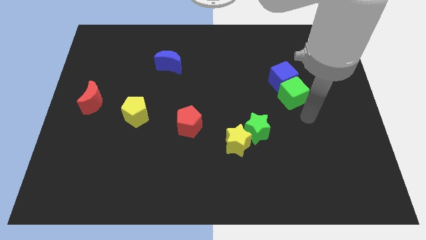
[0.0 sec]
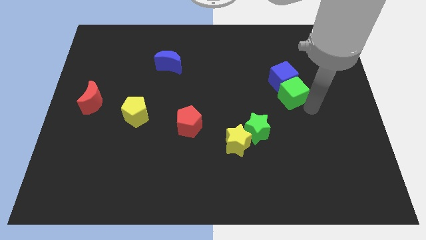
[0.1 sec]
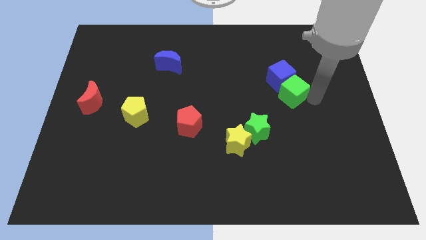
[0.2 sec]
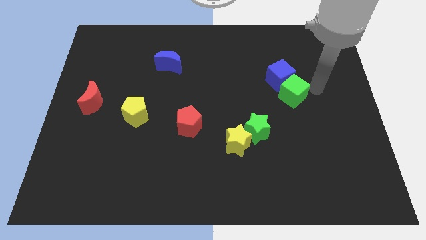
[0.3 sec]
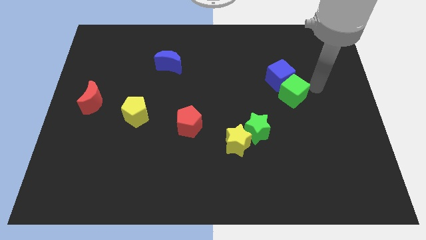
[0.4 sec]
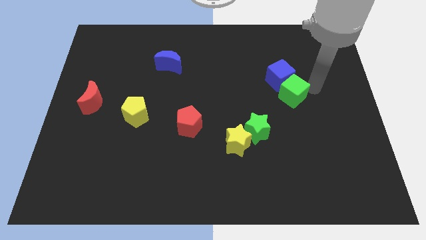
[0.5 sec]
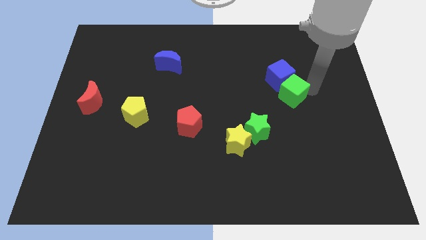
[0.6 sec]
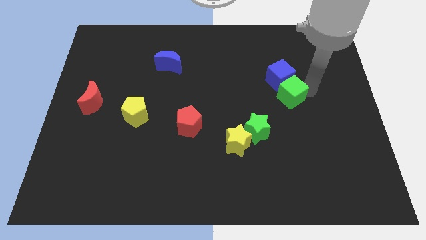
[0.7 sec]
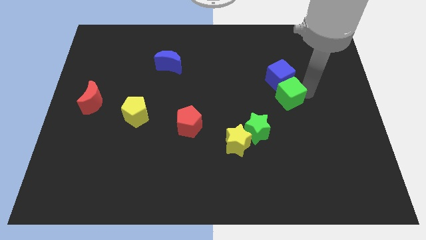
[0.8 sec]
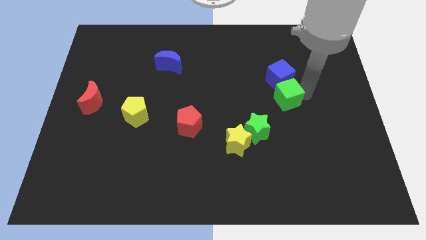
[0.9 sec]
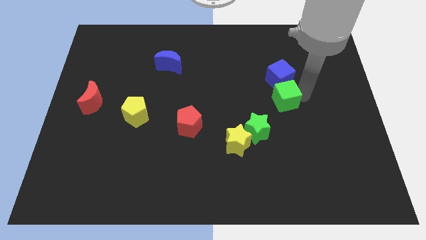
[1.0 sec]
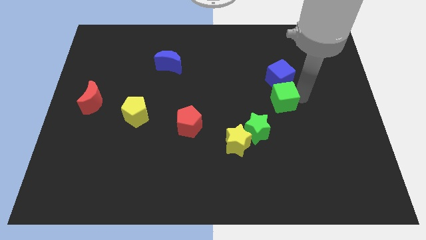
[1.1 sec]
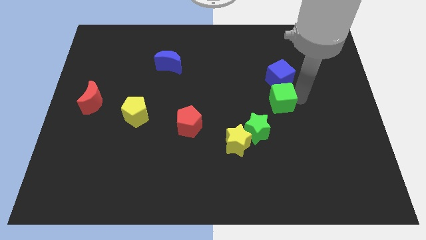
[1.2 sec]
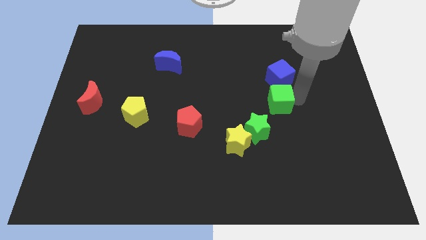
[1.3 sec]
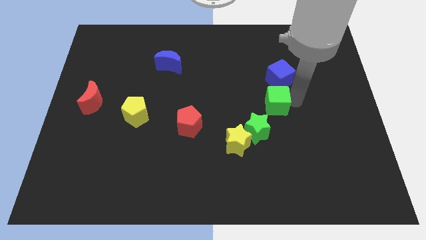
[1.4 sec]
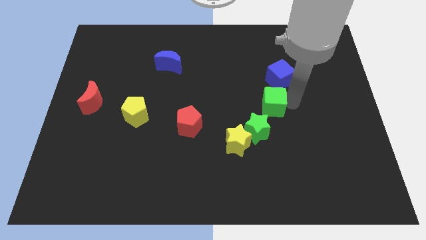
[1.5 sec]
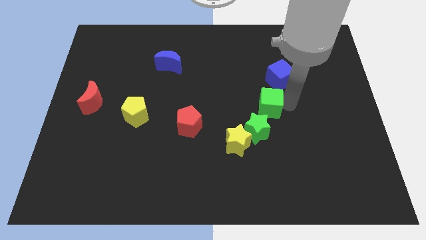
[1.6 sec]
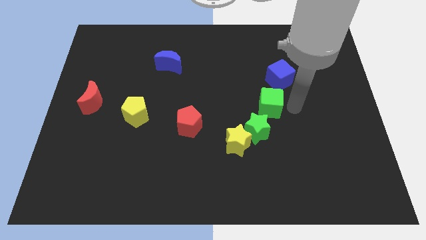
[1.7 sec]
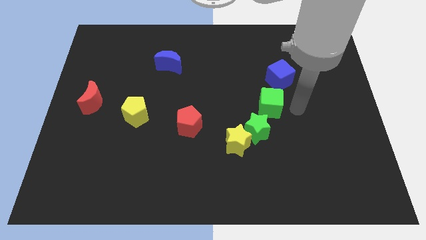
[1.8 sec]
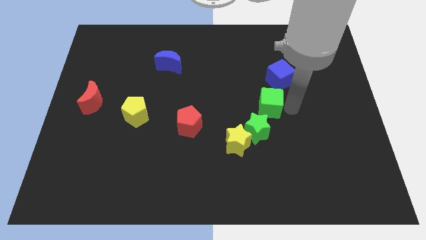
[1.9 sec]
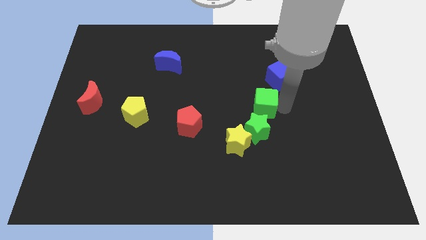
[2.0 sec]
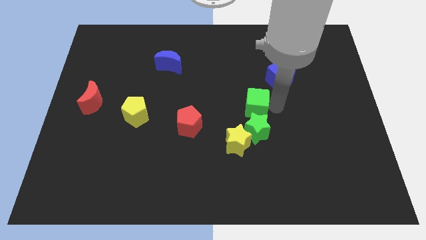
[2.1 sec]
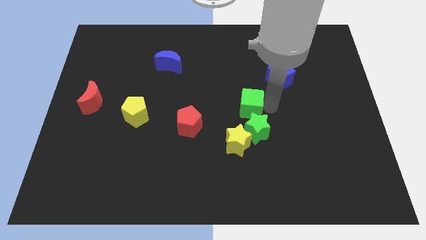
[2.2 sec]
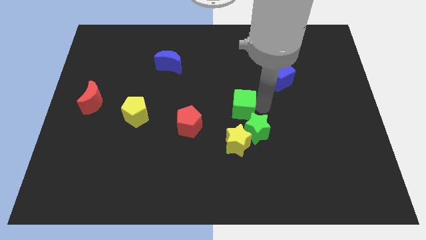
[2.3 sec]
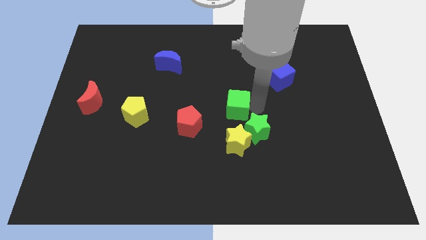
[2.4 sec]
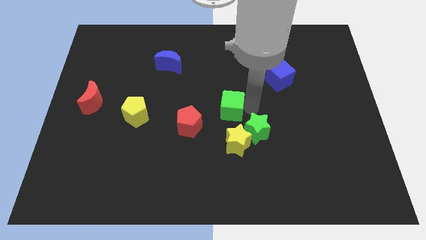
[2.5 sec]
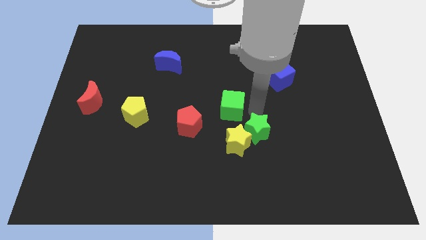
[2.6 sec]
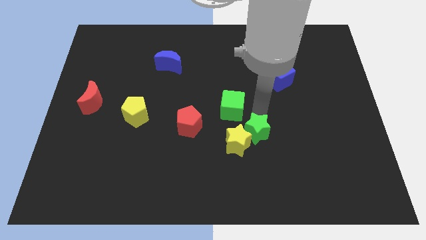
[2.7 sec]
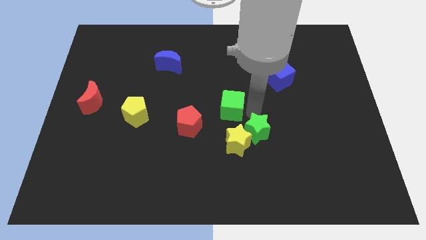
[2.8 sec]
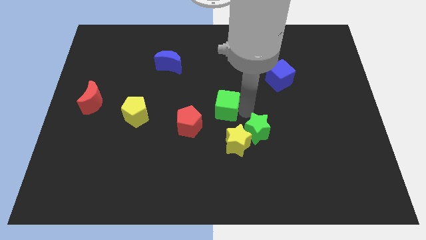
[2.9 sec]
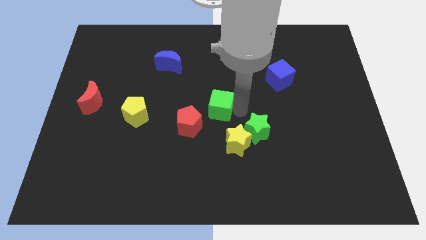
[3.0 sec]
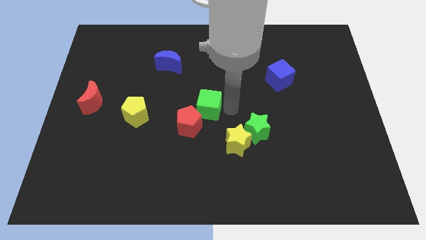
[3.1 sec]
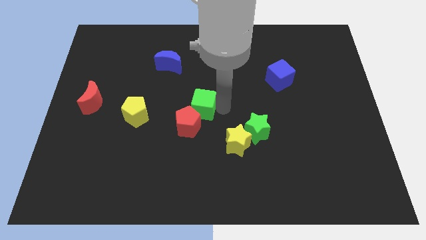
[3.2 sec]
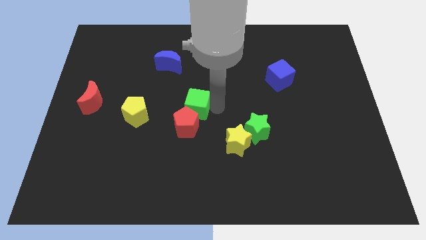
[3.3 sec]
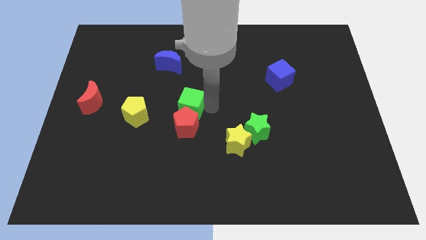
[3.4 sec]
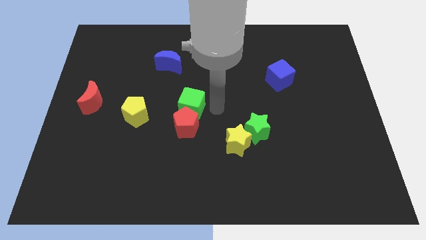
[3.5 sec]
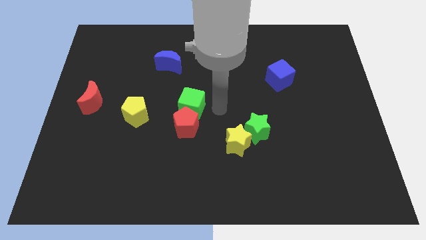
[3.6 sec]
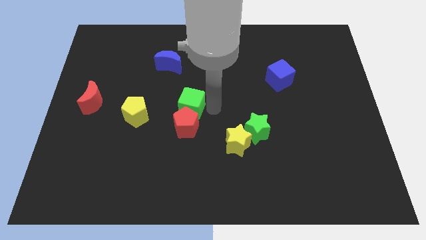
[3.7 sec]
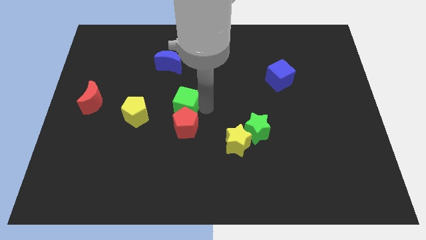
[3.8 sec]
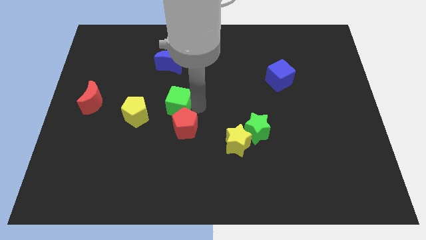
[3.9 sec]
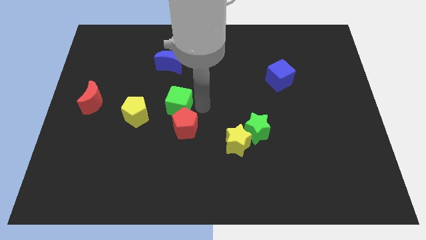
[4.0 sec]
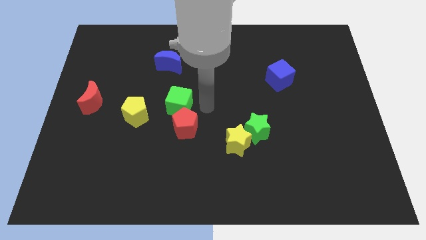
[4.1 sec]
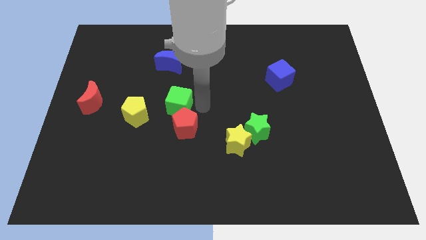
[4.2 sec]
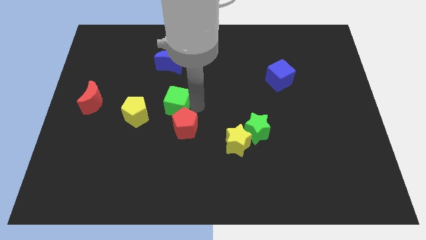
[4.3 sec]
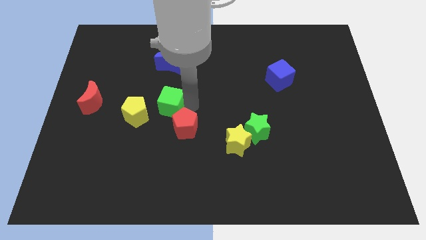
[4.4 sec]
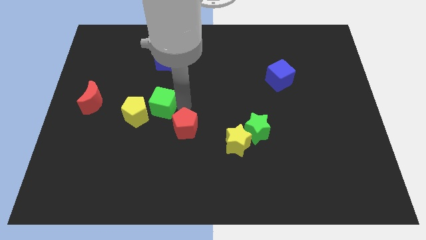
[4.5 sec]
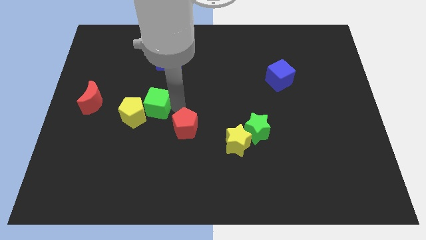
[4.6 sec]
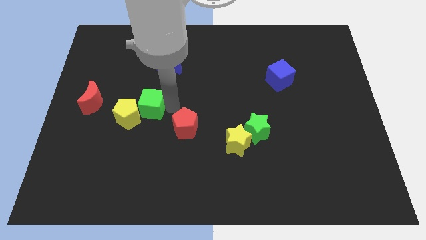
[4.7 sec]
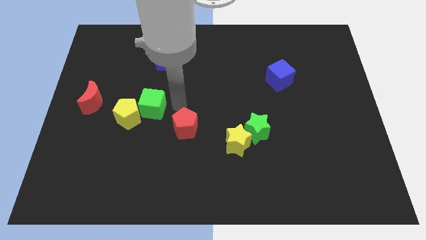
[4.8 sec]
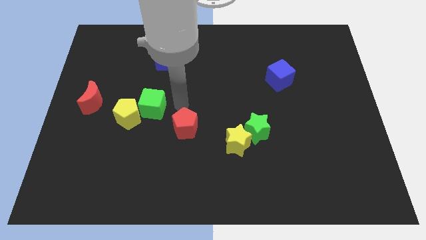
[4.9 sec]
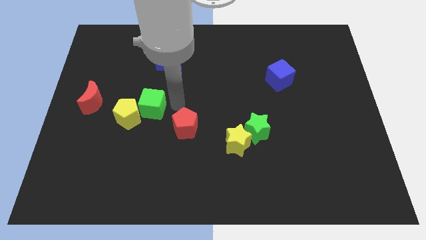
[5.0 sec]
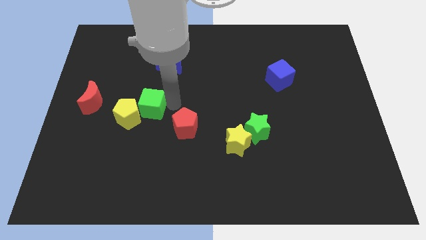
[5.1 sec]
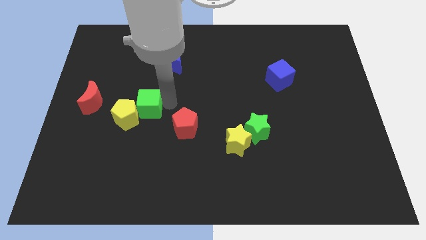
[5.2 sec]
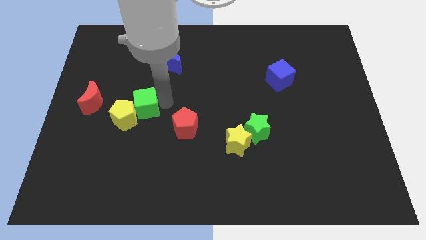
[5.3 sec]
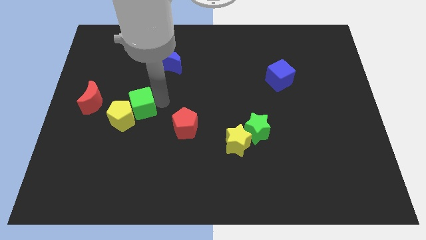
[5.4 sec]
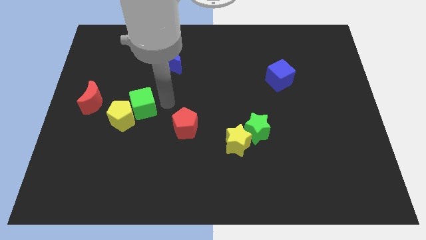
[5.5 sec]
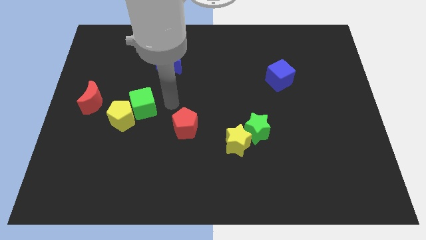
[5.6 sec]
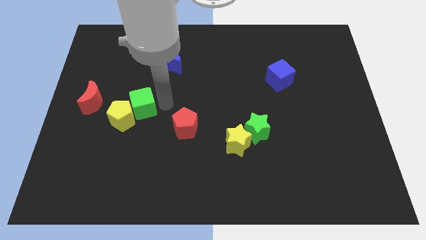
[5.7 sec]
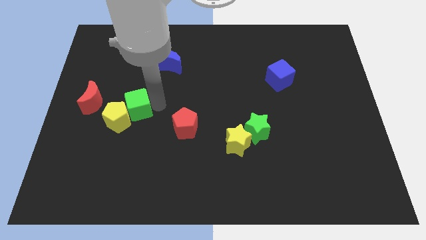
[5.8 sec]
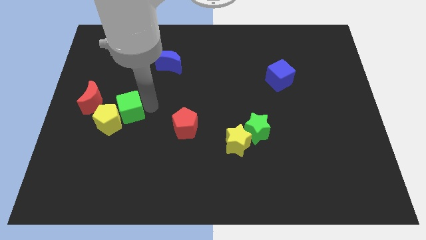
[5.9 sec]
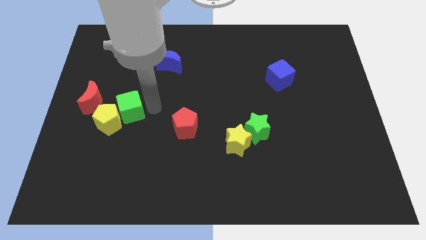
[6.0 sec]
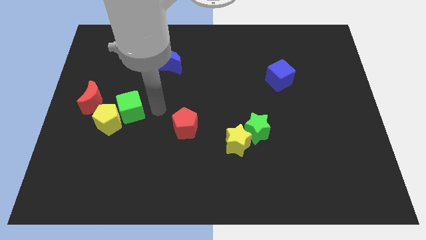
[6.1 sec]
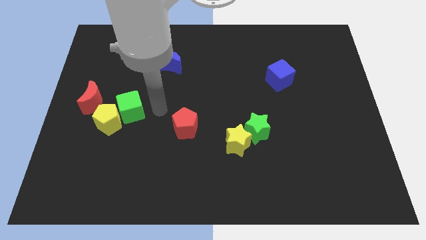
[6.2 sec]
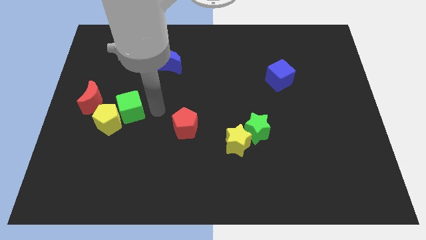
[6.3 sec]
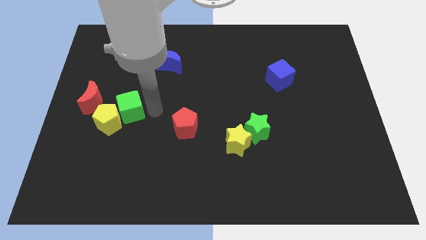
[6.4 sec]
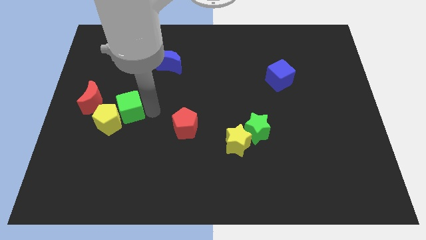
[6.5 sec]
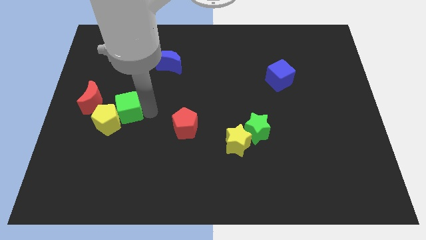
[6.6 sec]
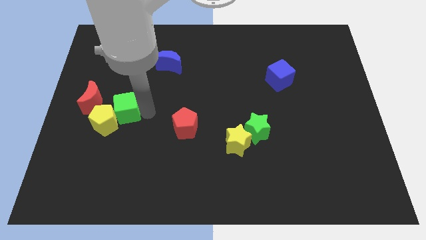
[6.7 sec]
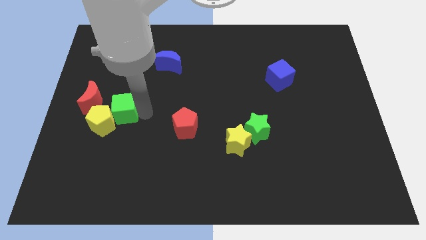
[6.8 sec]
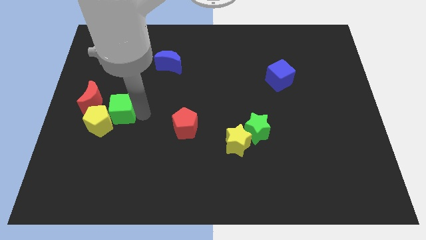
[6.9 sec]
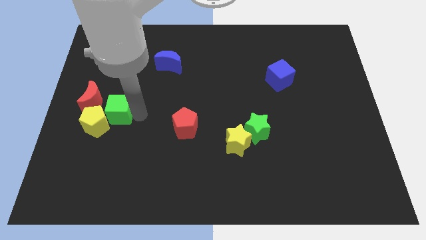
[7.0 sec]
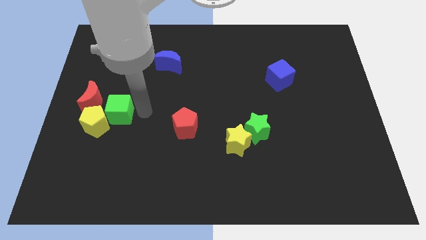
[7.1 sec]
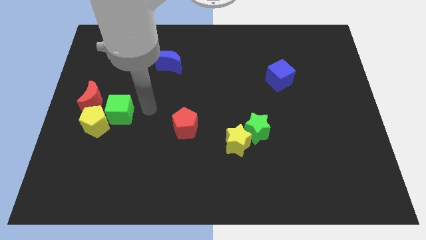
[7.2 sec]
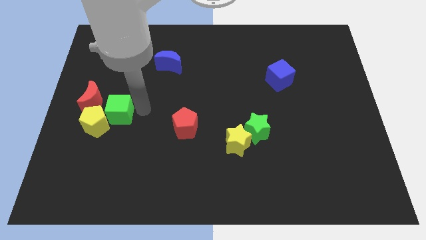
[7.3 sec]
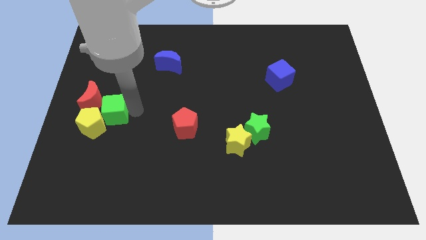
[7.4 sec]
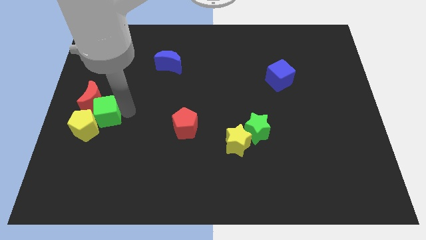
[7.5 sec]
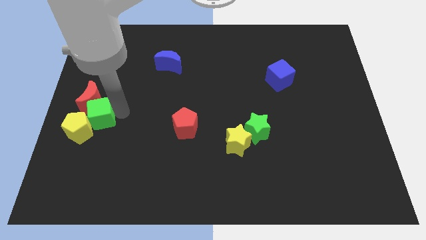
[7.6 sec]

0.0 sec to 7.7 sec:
put the green cube to the left side
